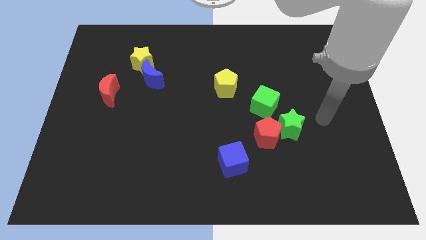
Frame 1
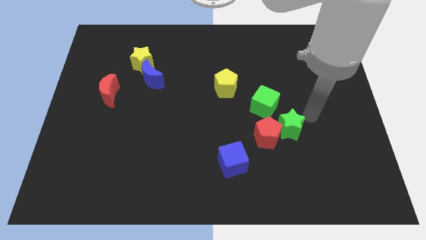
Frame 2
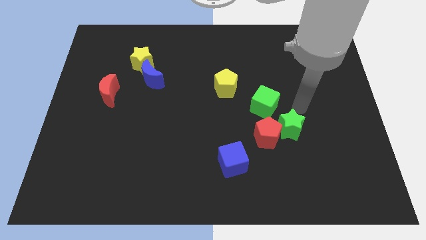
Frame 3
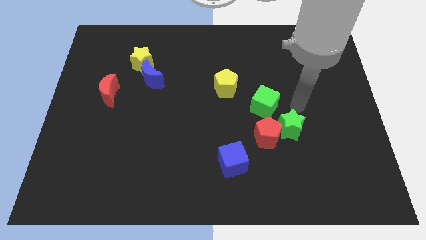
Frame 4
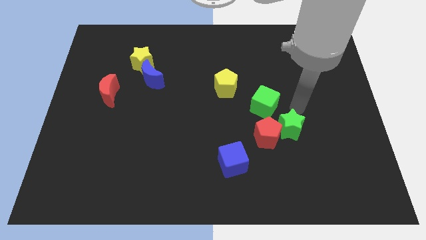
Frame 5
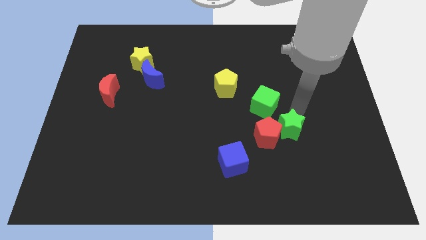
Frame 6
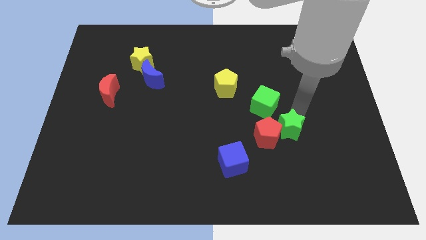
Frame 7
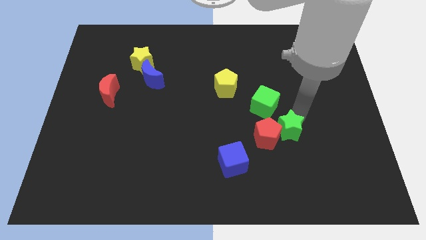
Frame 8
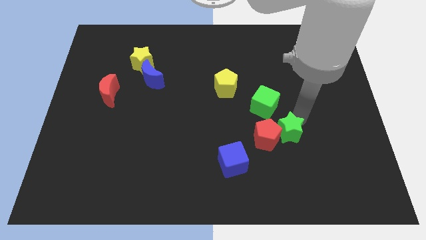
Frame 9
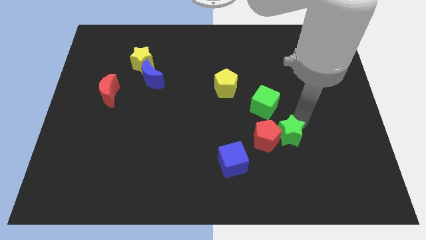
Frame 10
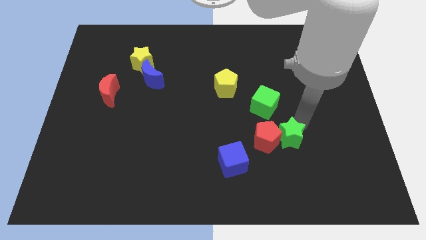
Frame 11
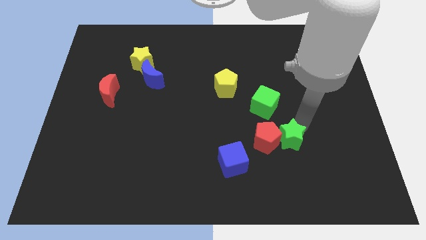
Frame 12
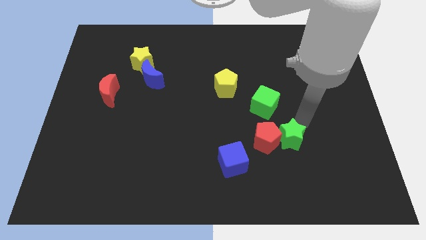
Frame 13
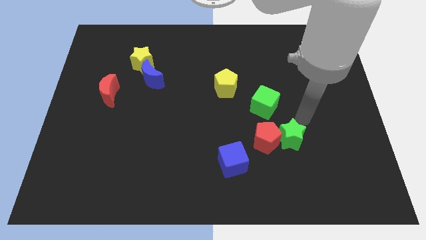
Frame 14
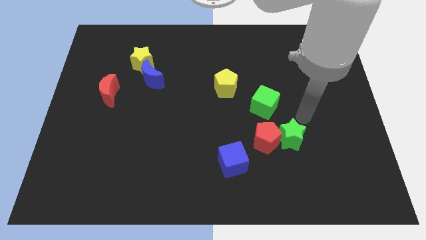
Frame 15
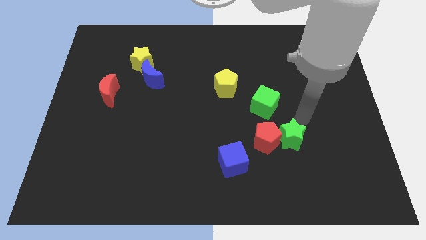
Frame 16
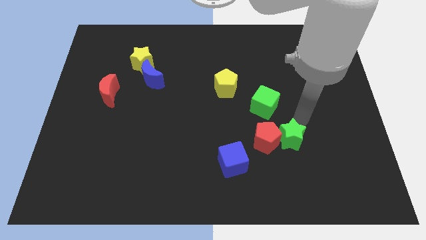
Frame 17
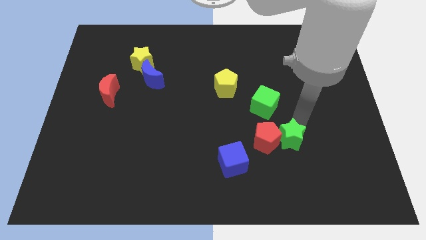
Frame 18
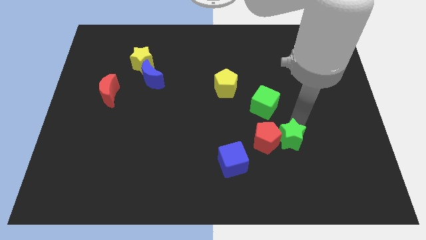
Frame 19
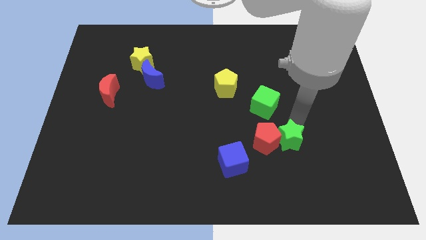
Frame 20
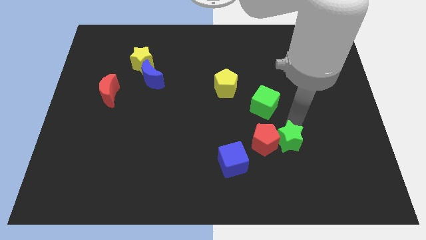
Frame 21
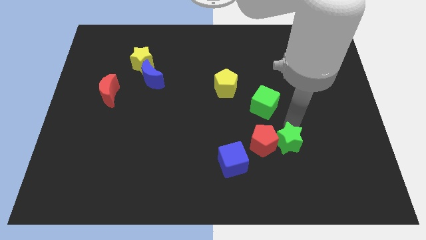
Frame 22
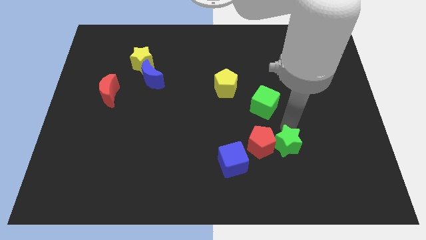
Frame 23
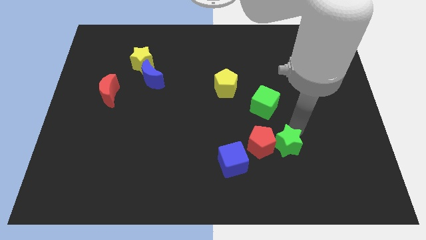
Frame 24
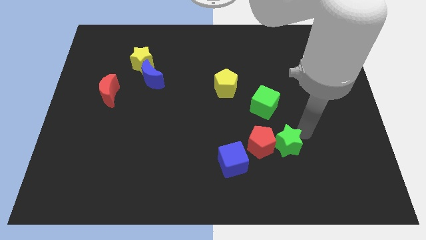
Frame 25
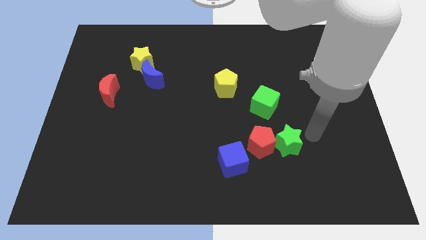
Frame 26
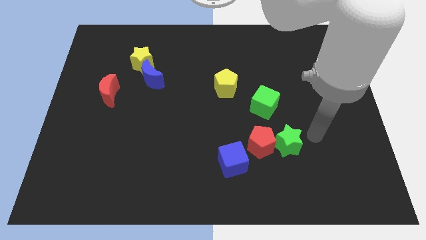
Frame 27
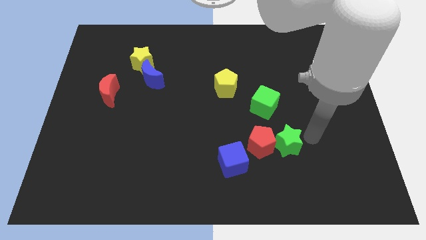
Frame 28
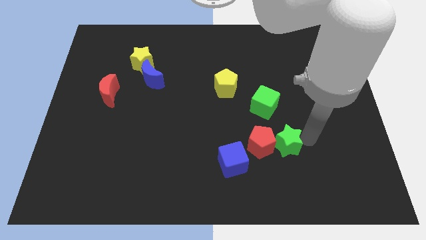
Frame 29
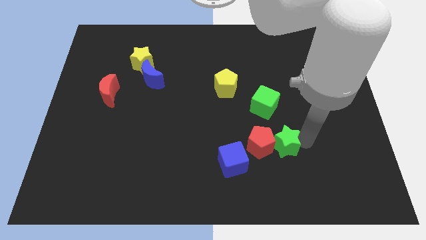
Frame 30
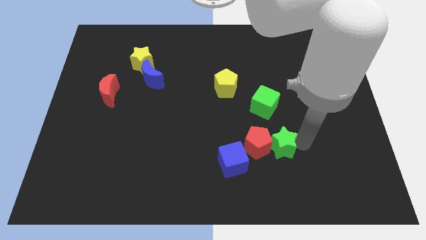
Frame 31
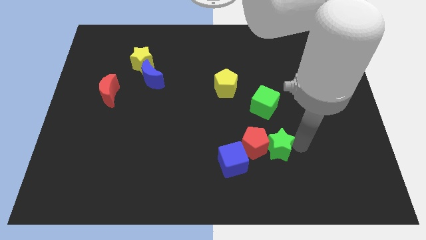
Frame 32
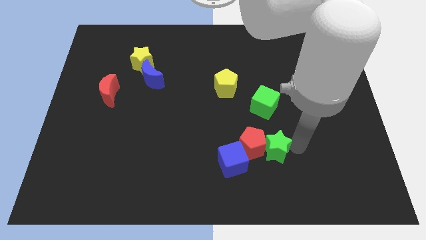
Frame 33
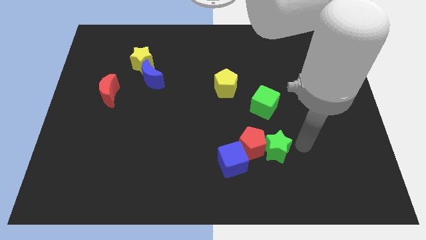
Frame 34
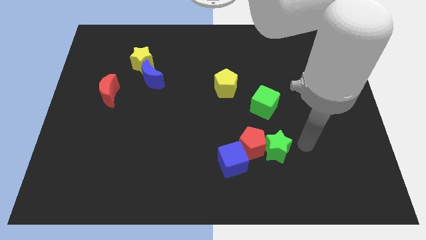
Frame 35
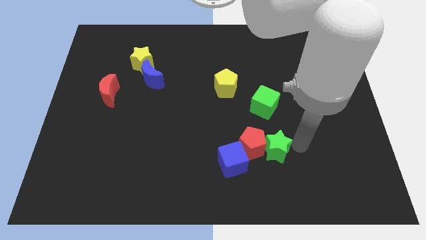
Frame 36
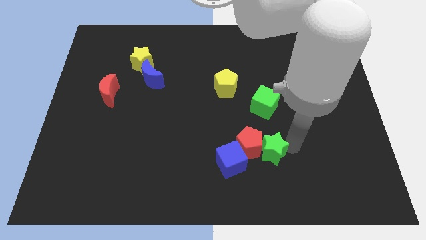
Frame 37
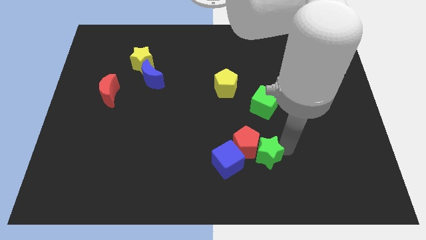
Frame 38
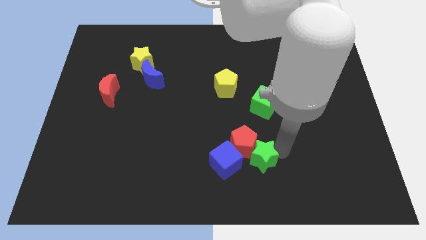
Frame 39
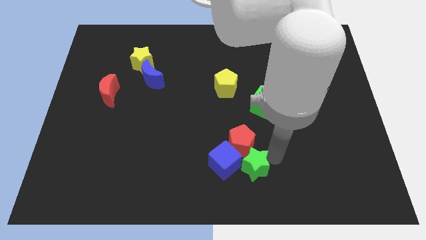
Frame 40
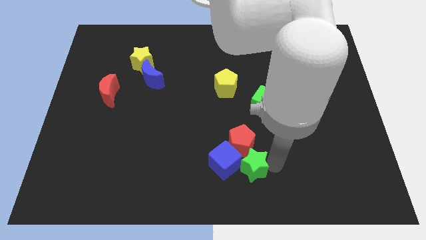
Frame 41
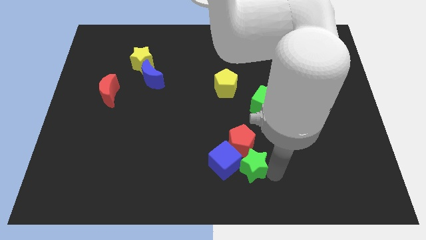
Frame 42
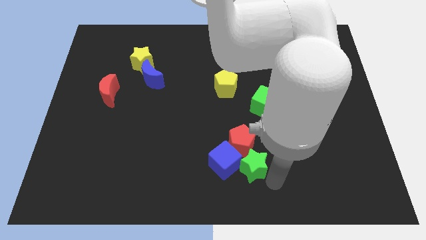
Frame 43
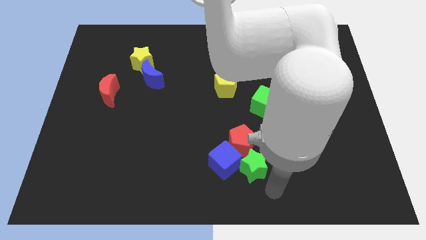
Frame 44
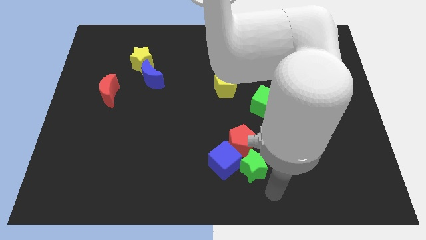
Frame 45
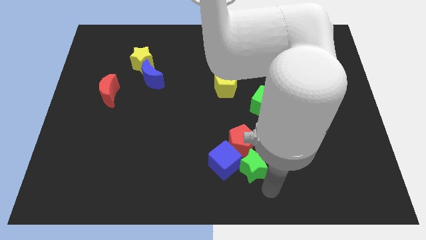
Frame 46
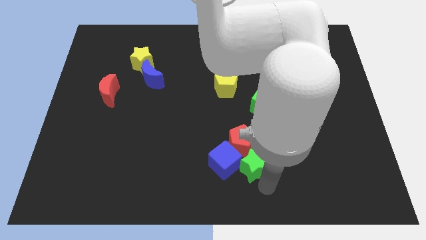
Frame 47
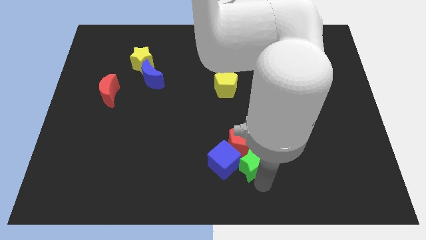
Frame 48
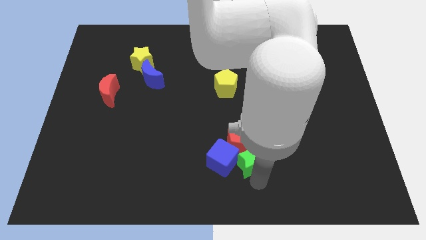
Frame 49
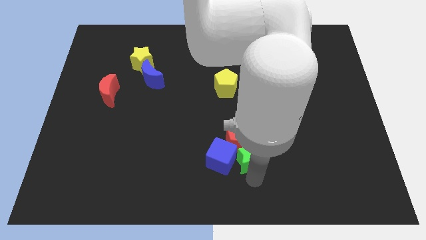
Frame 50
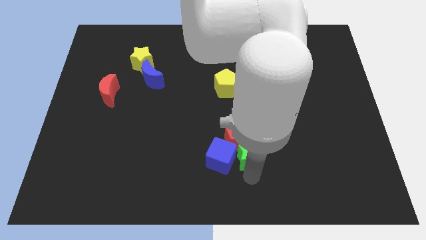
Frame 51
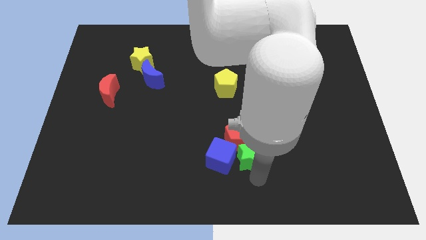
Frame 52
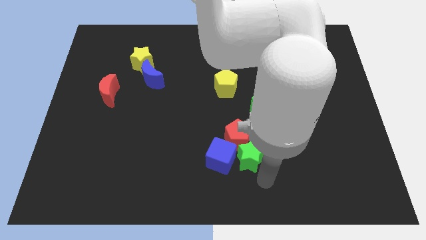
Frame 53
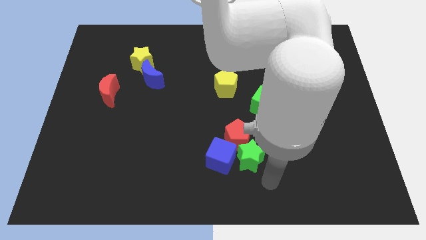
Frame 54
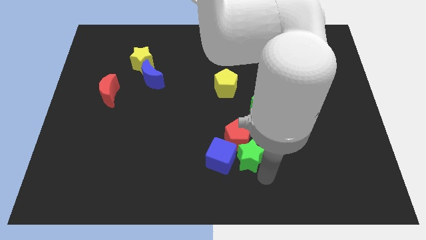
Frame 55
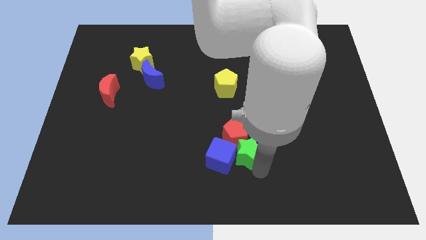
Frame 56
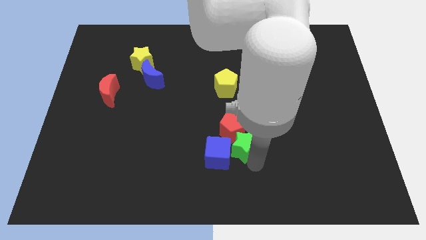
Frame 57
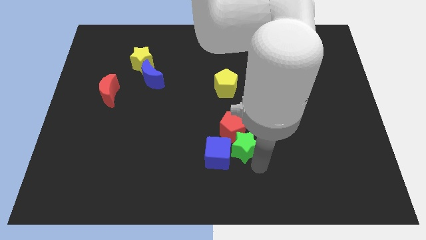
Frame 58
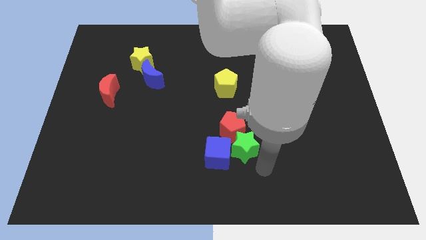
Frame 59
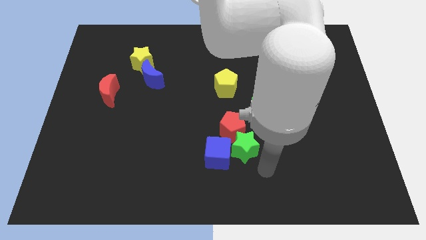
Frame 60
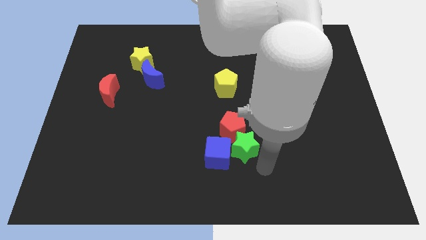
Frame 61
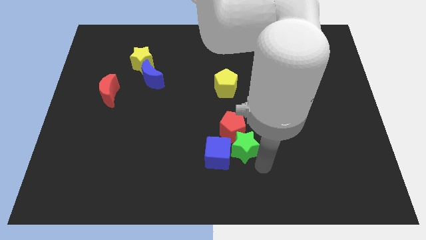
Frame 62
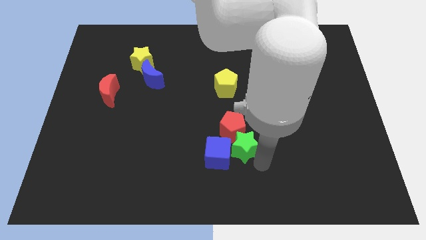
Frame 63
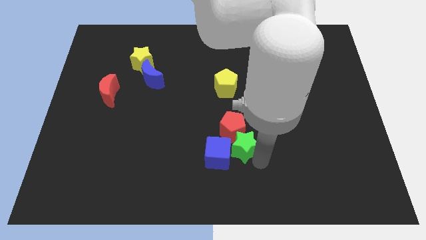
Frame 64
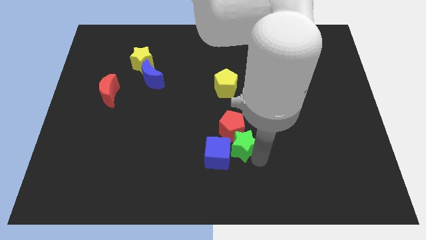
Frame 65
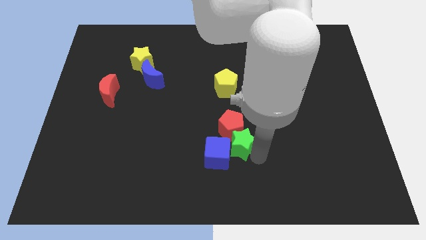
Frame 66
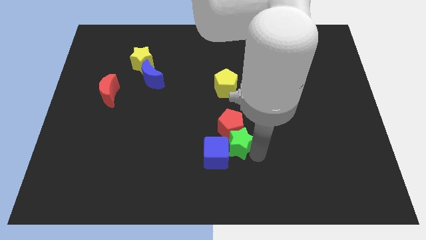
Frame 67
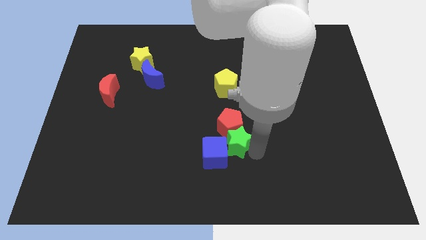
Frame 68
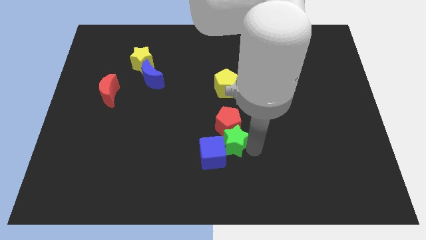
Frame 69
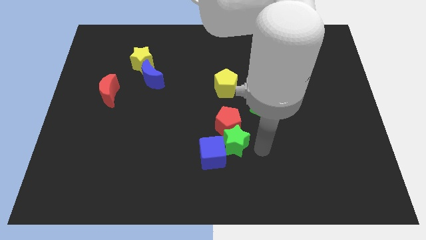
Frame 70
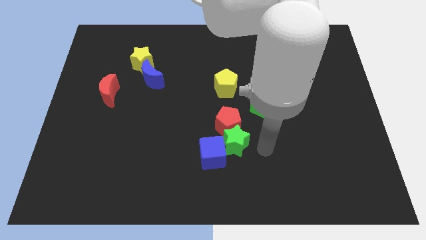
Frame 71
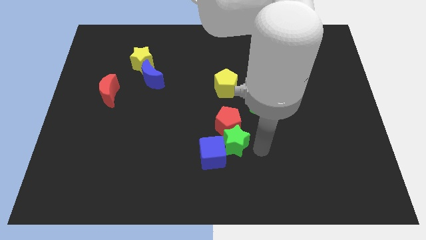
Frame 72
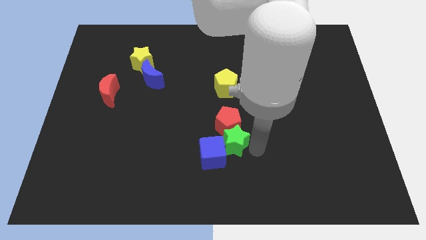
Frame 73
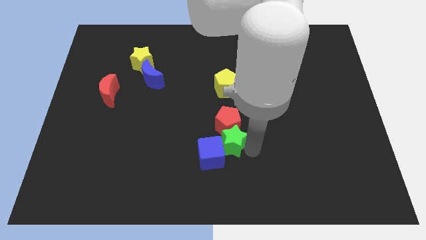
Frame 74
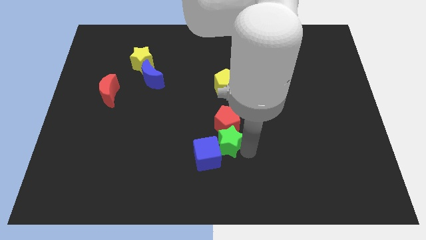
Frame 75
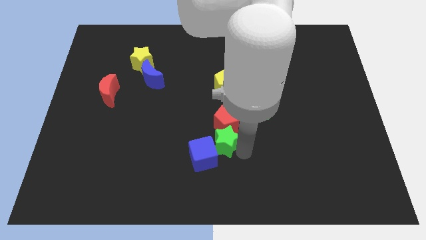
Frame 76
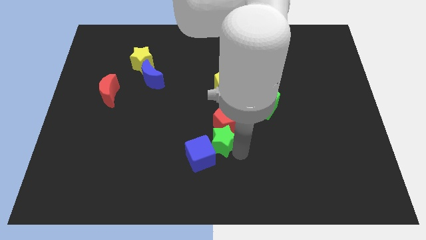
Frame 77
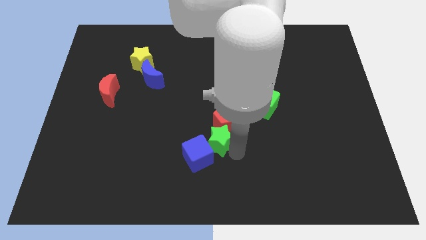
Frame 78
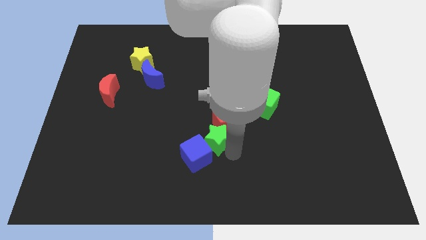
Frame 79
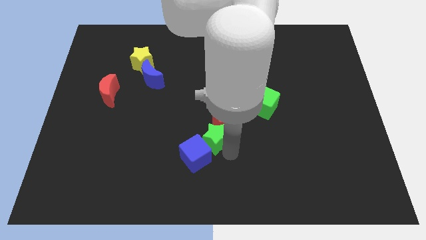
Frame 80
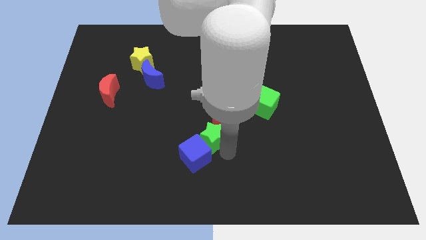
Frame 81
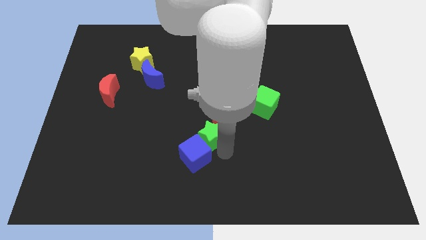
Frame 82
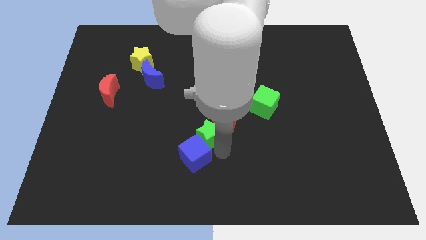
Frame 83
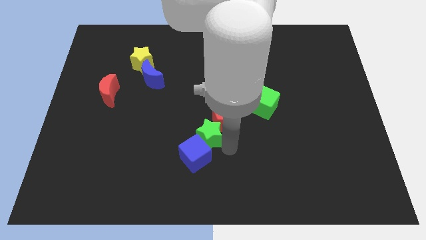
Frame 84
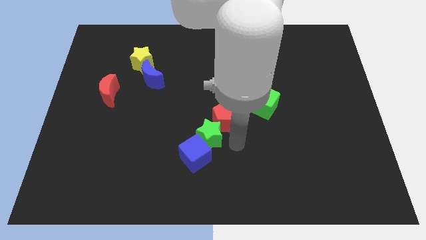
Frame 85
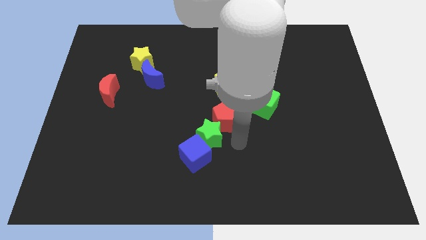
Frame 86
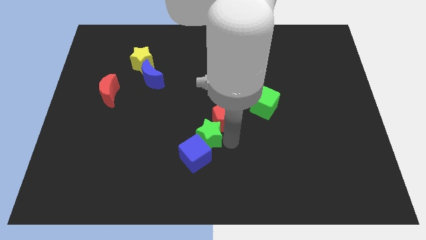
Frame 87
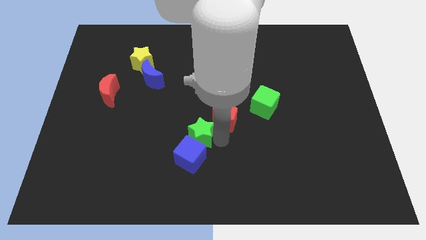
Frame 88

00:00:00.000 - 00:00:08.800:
slide the green star to the left
